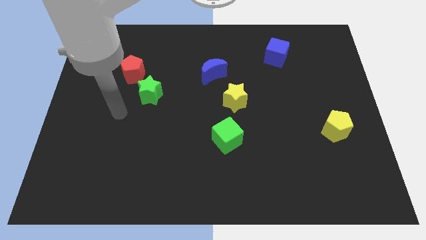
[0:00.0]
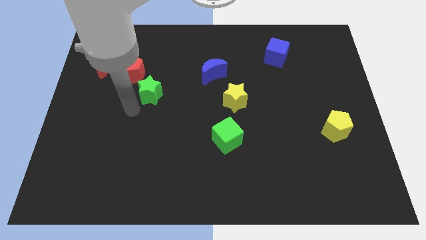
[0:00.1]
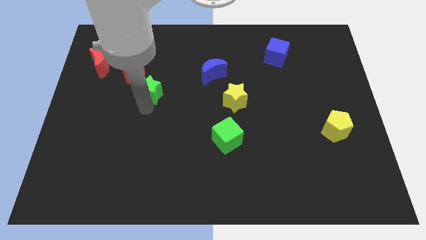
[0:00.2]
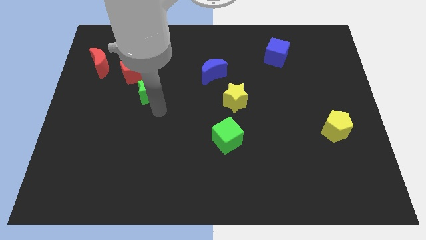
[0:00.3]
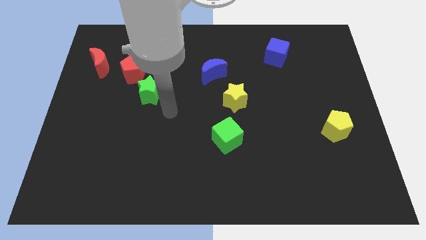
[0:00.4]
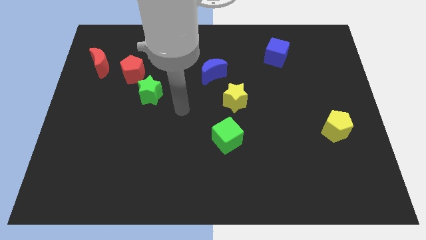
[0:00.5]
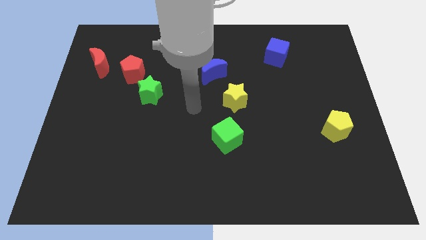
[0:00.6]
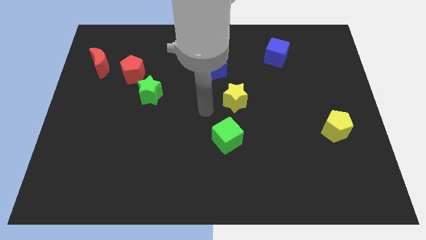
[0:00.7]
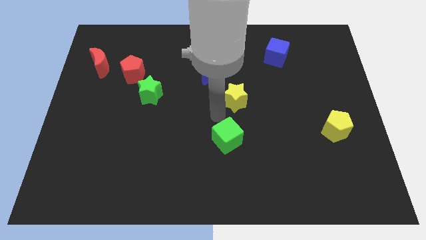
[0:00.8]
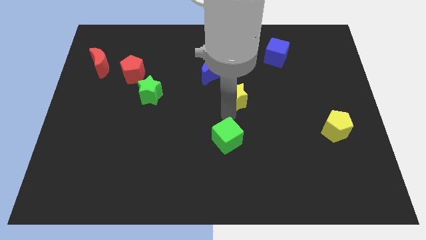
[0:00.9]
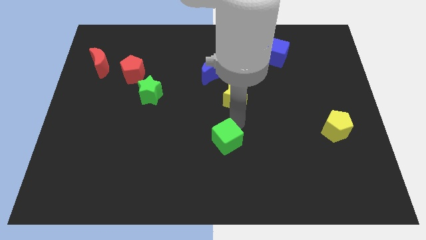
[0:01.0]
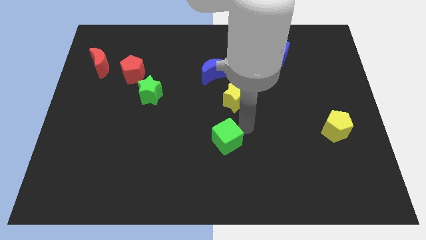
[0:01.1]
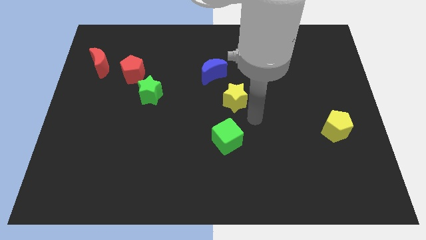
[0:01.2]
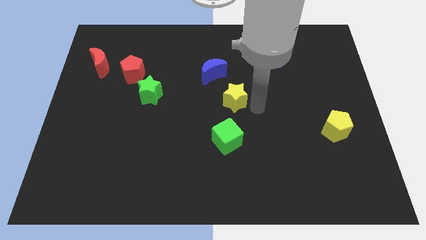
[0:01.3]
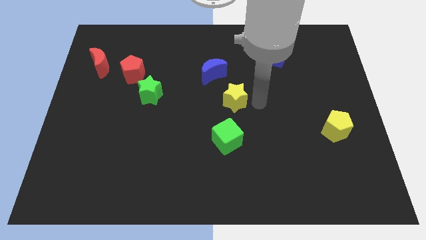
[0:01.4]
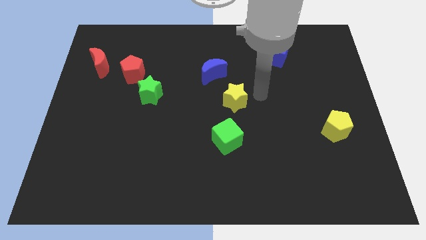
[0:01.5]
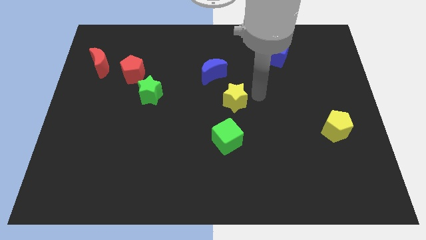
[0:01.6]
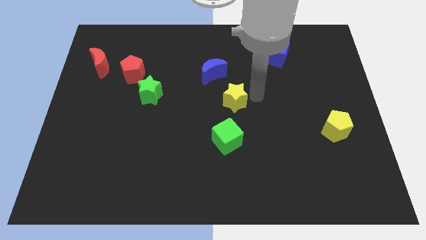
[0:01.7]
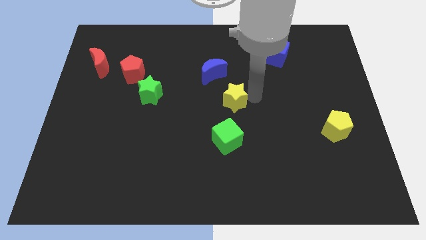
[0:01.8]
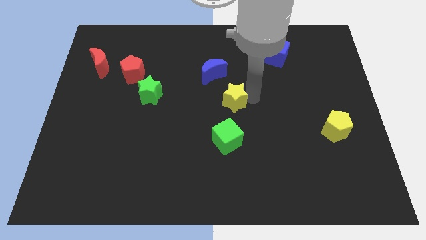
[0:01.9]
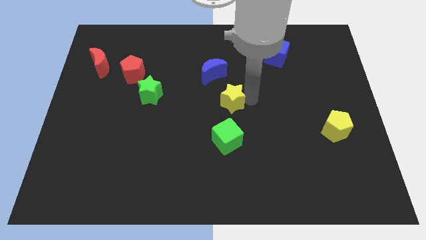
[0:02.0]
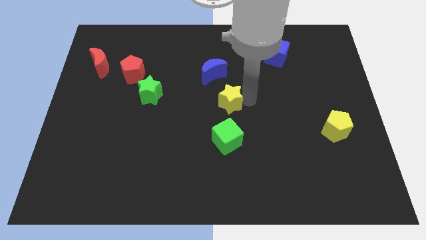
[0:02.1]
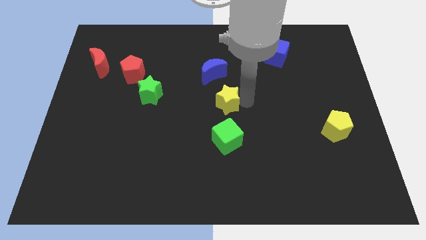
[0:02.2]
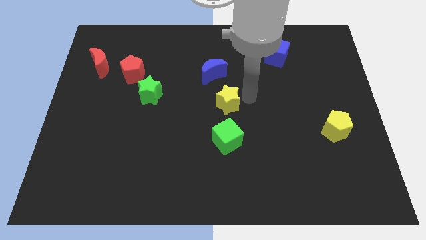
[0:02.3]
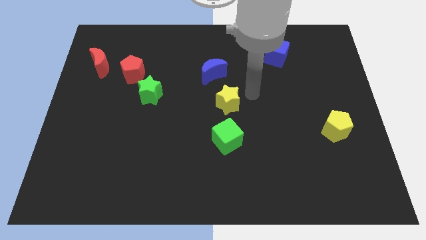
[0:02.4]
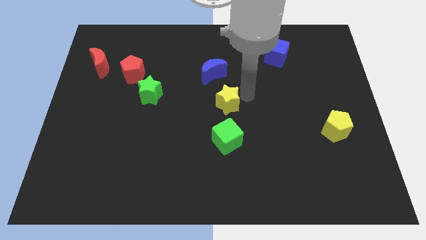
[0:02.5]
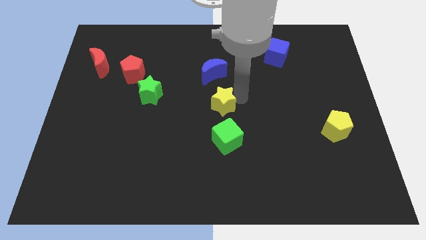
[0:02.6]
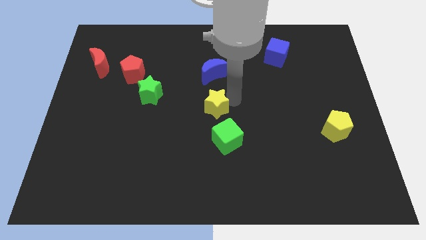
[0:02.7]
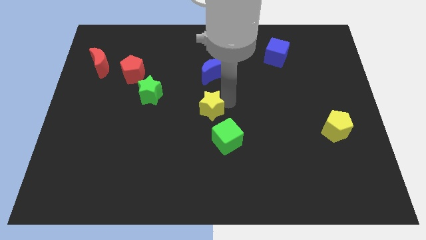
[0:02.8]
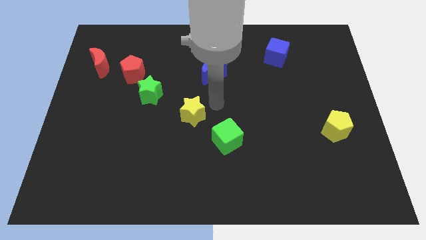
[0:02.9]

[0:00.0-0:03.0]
slightly slide the yellow star diagonally down and left

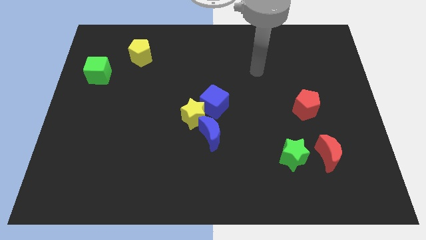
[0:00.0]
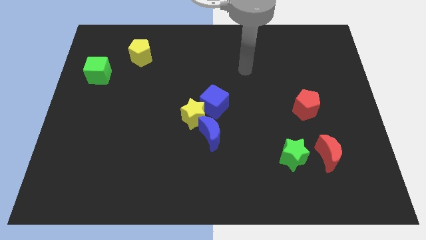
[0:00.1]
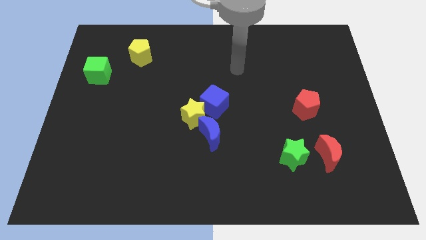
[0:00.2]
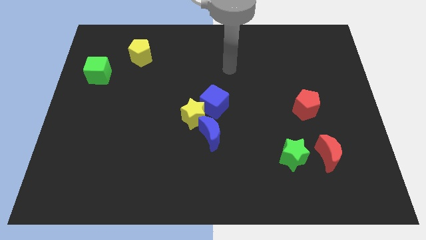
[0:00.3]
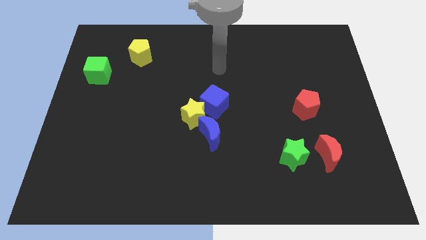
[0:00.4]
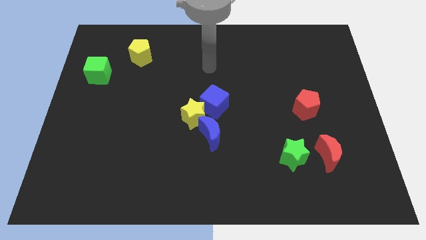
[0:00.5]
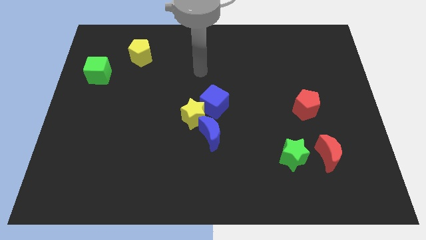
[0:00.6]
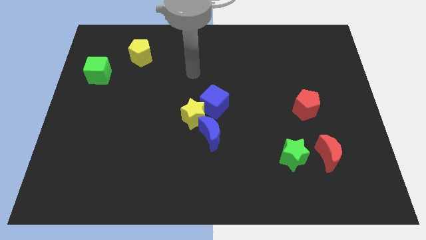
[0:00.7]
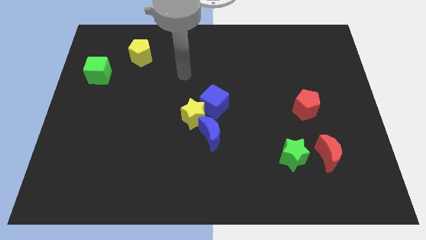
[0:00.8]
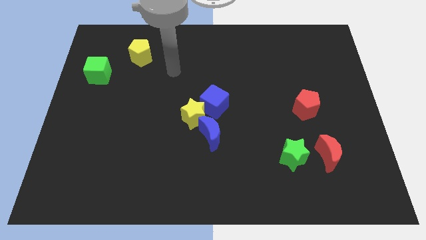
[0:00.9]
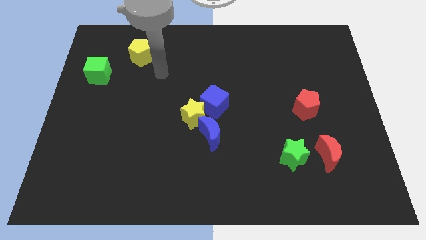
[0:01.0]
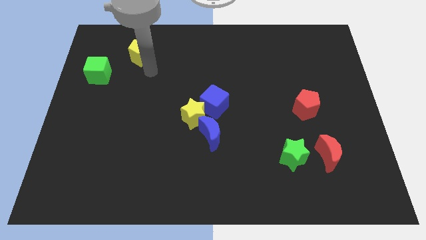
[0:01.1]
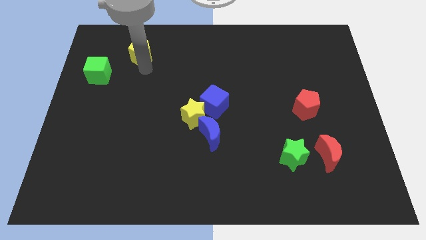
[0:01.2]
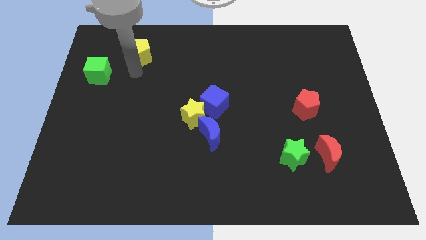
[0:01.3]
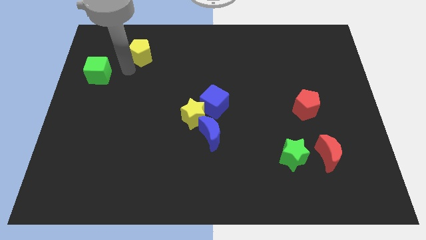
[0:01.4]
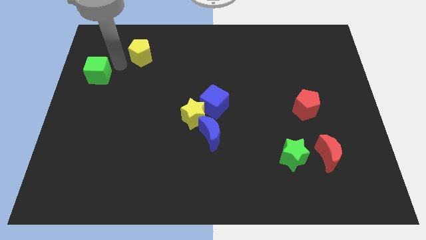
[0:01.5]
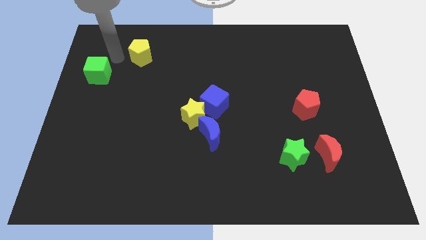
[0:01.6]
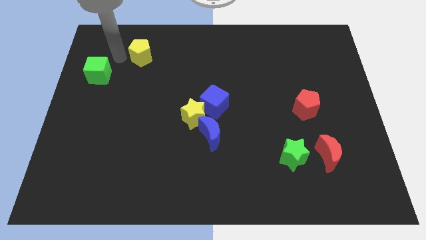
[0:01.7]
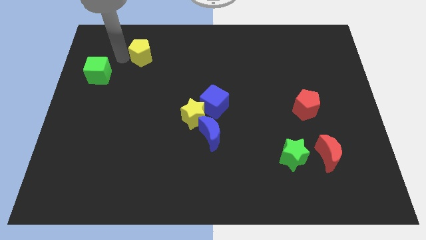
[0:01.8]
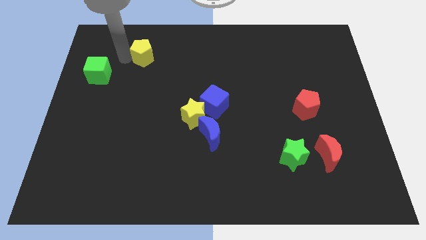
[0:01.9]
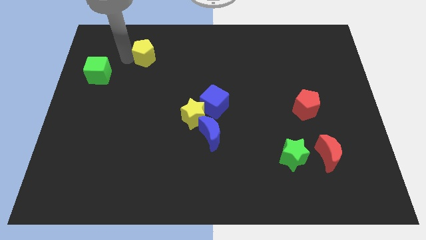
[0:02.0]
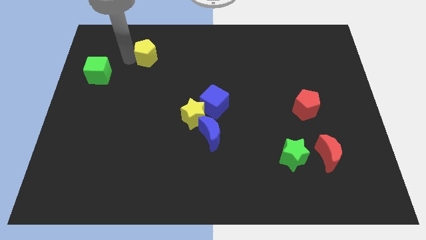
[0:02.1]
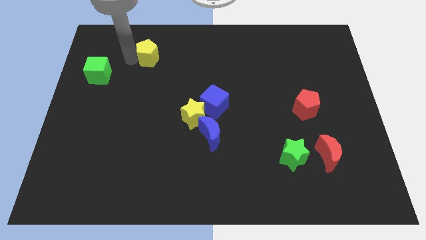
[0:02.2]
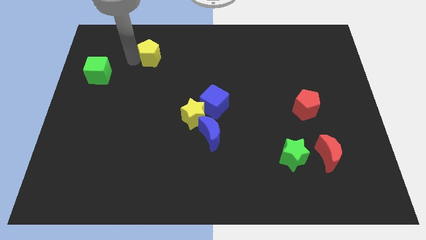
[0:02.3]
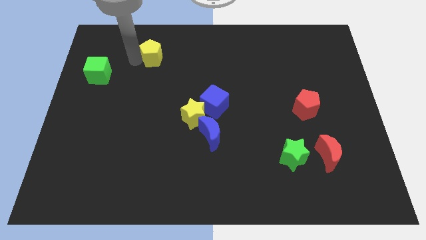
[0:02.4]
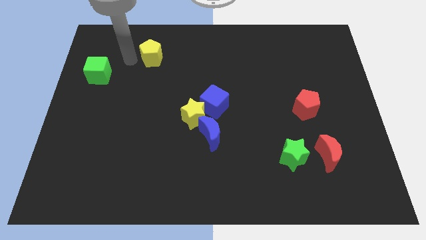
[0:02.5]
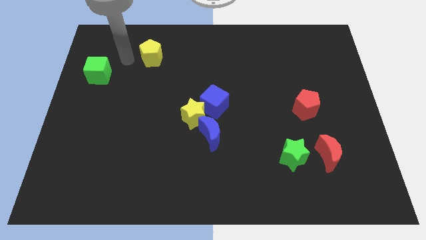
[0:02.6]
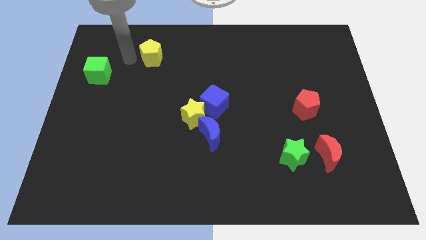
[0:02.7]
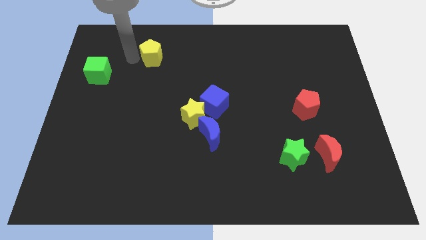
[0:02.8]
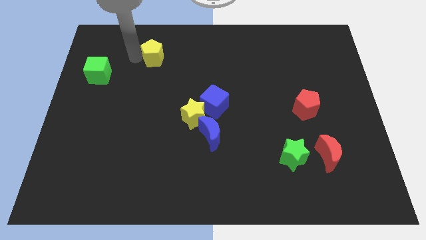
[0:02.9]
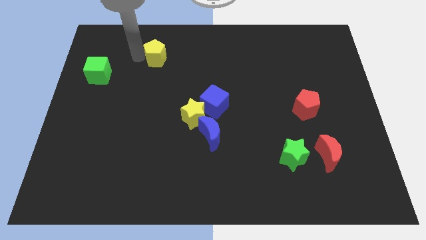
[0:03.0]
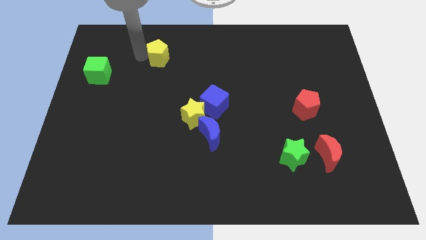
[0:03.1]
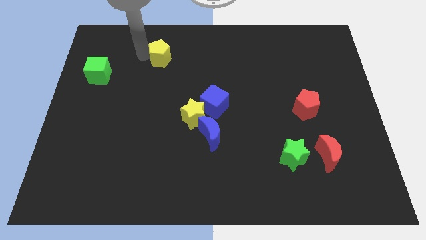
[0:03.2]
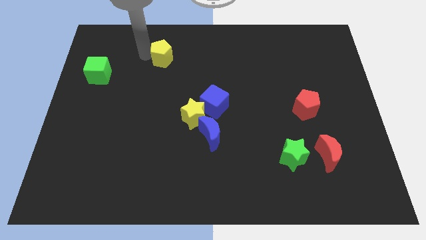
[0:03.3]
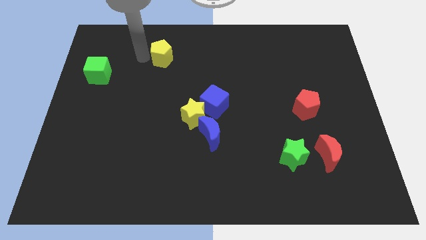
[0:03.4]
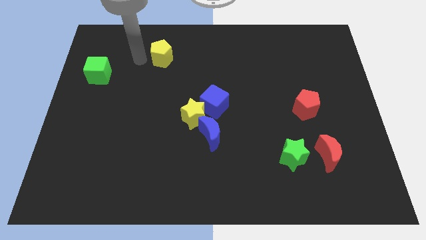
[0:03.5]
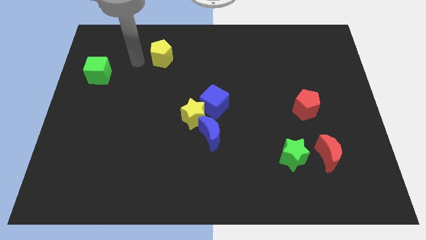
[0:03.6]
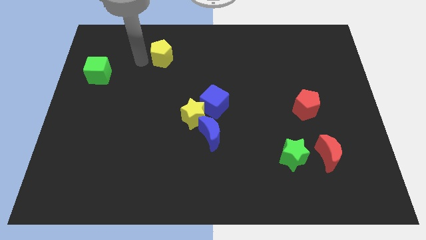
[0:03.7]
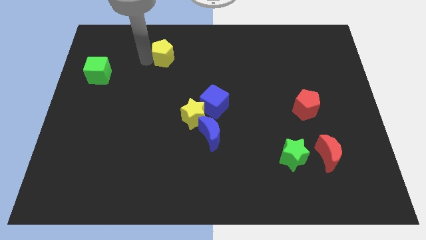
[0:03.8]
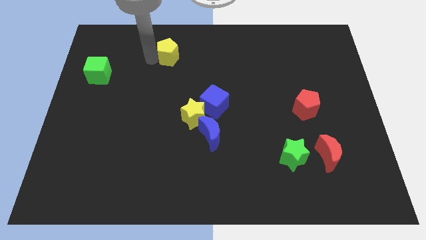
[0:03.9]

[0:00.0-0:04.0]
slide the yellow pentagon somewhat to the right

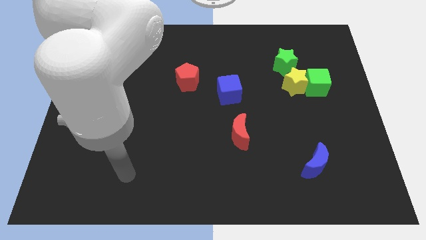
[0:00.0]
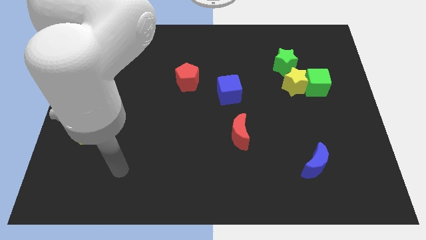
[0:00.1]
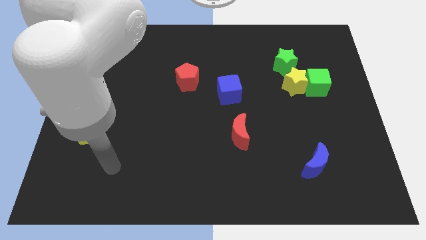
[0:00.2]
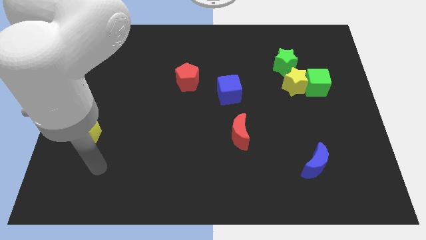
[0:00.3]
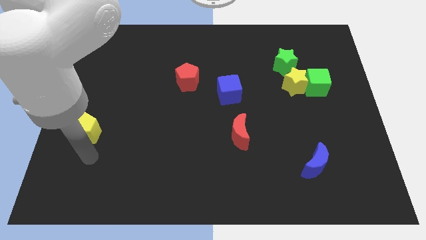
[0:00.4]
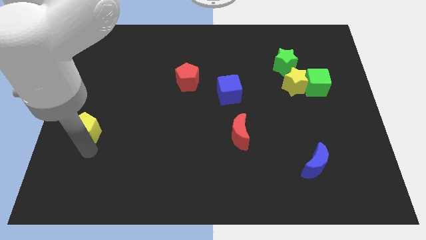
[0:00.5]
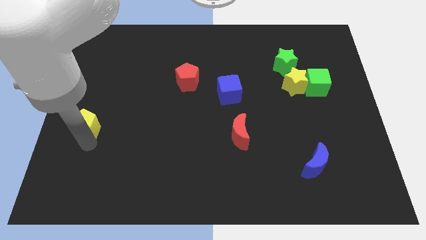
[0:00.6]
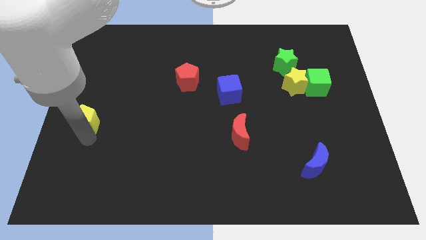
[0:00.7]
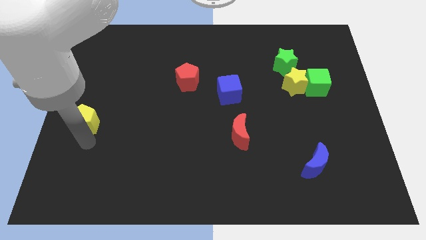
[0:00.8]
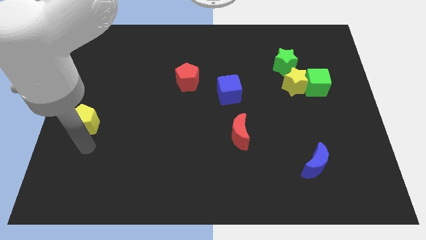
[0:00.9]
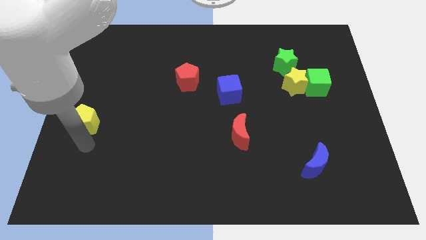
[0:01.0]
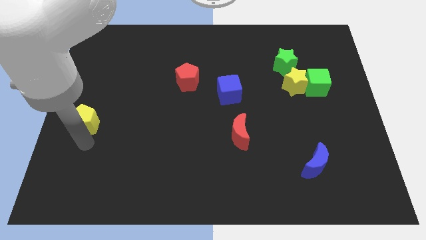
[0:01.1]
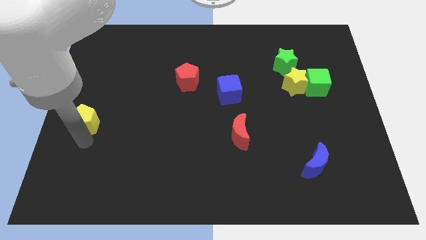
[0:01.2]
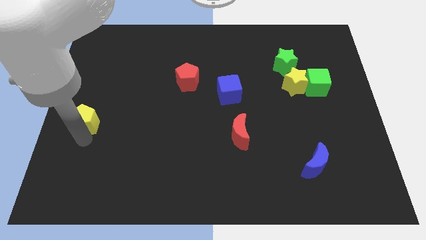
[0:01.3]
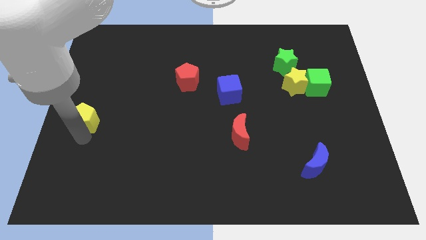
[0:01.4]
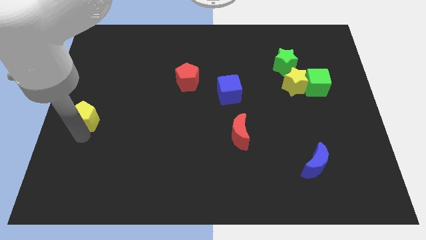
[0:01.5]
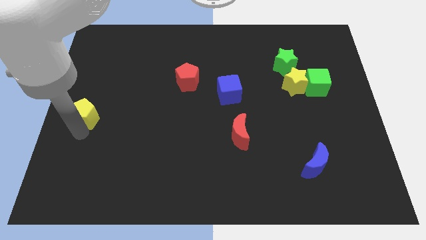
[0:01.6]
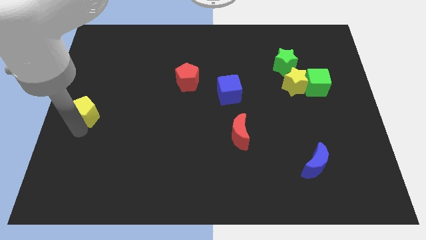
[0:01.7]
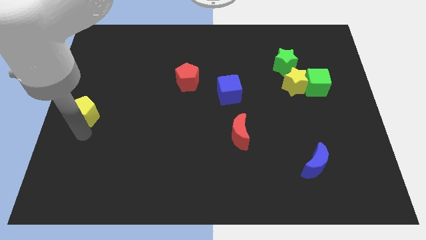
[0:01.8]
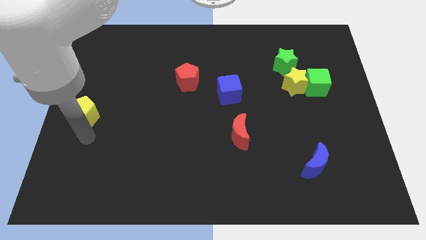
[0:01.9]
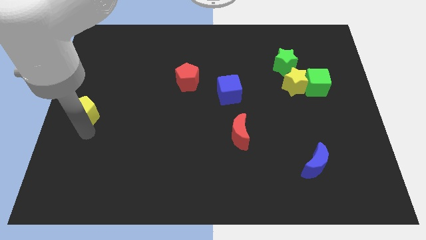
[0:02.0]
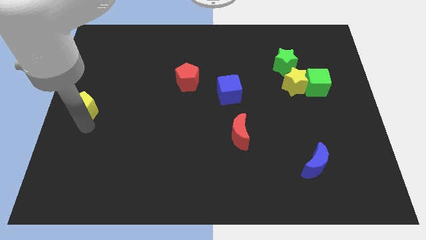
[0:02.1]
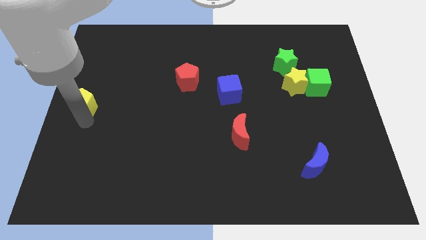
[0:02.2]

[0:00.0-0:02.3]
slide the yellow pentagon upwards somewhat
